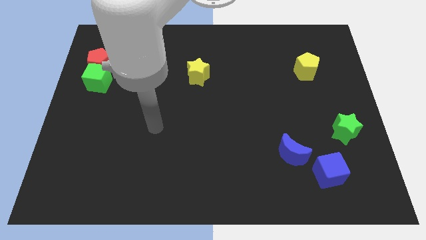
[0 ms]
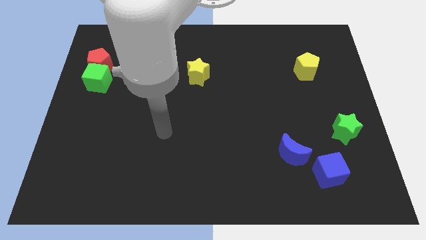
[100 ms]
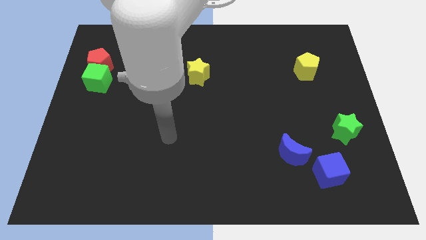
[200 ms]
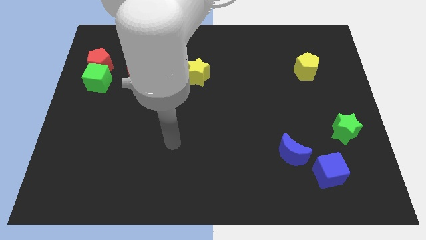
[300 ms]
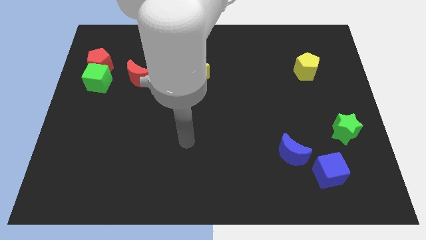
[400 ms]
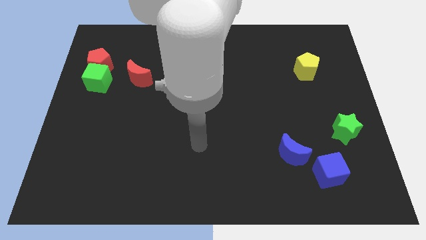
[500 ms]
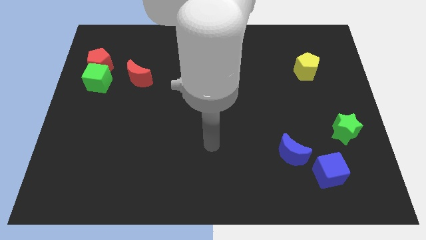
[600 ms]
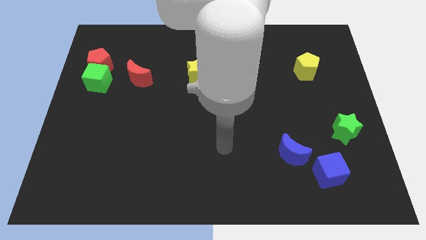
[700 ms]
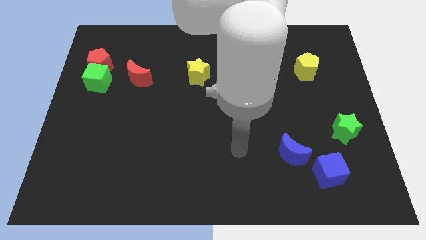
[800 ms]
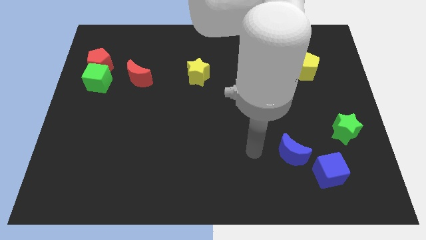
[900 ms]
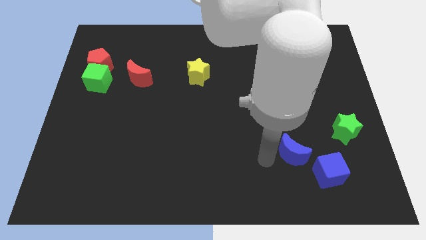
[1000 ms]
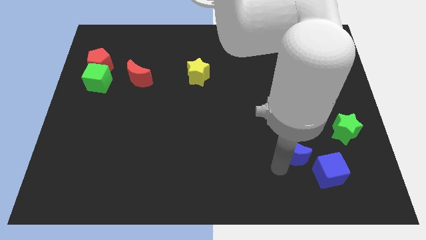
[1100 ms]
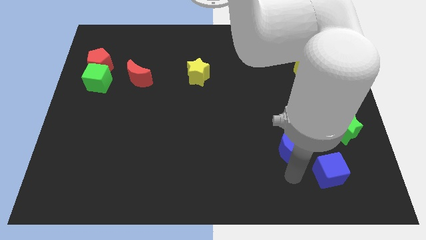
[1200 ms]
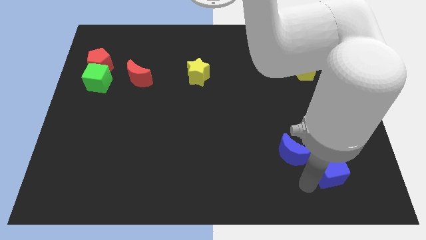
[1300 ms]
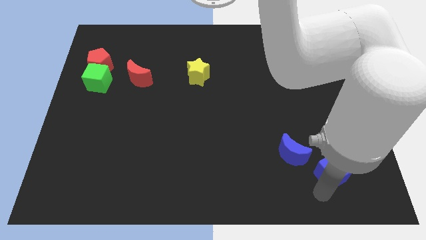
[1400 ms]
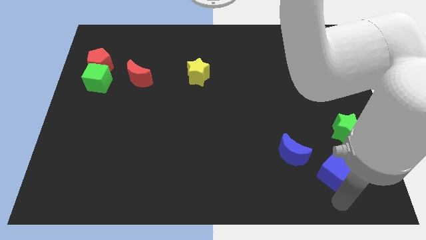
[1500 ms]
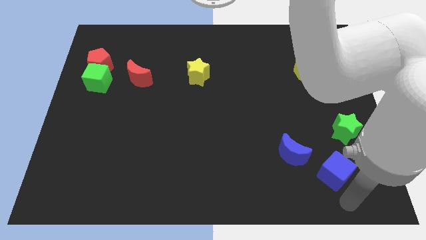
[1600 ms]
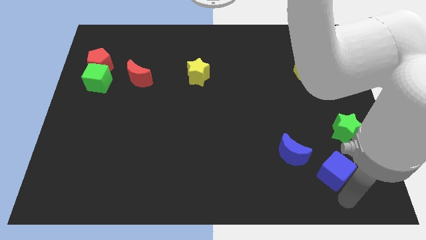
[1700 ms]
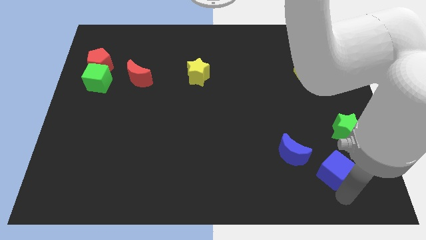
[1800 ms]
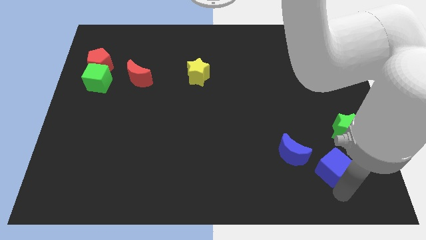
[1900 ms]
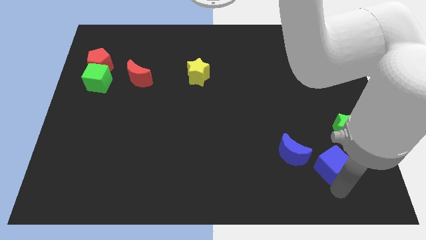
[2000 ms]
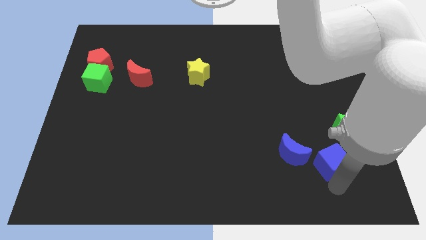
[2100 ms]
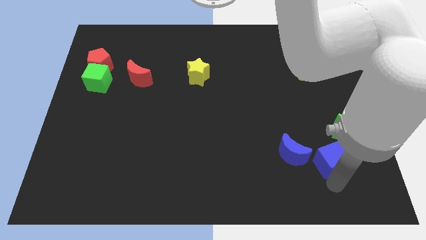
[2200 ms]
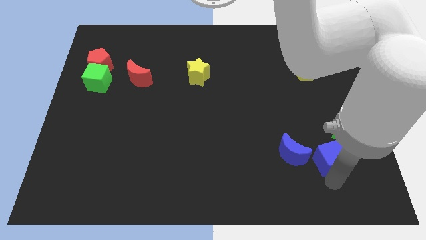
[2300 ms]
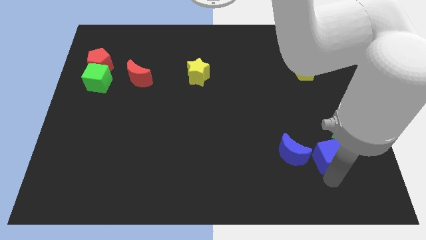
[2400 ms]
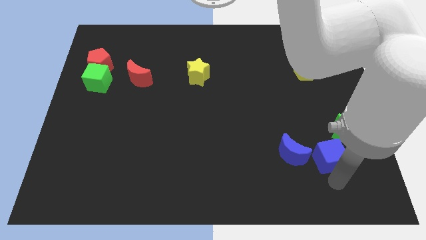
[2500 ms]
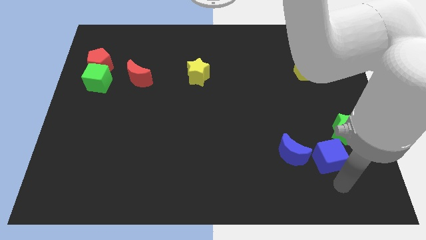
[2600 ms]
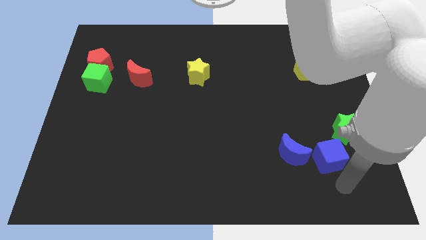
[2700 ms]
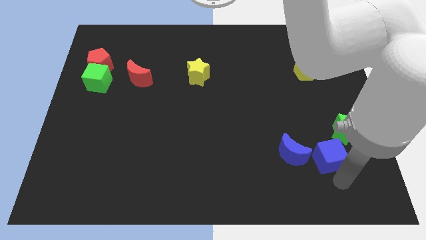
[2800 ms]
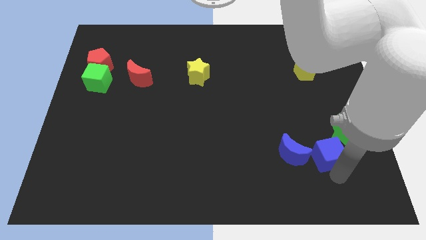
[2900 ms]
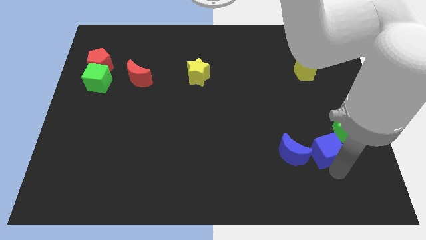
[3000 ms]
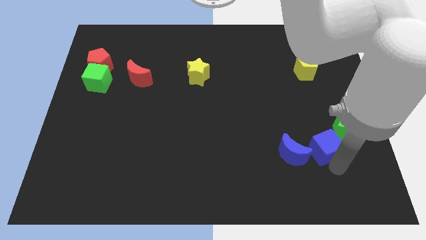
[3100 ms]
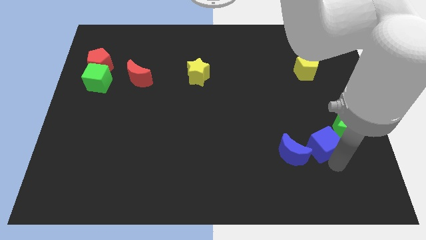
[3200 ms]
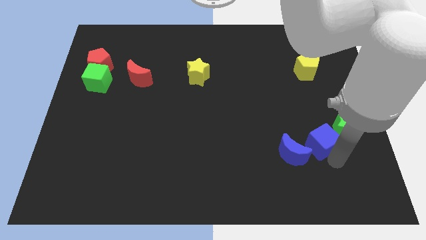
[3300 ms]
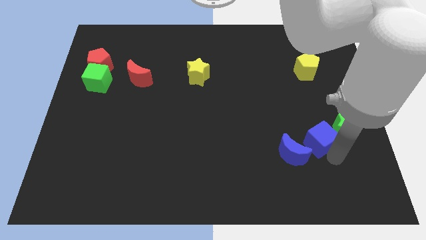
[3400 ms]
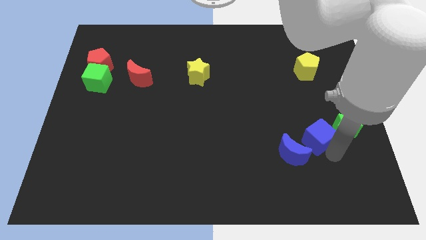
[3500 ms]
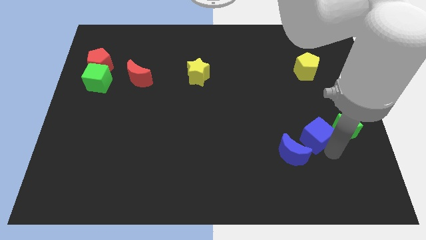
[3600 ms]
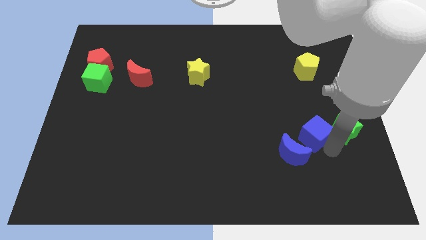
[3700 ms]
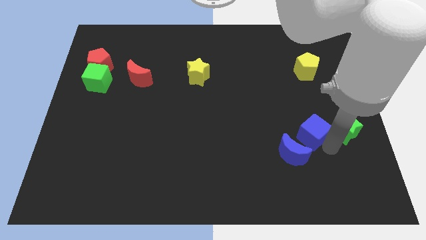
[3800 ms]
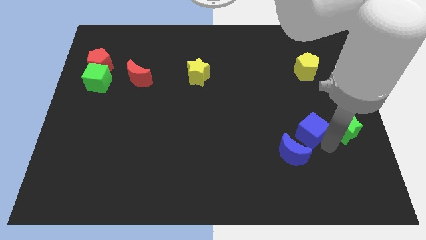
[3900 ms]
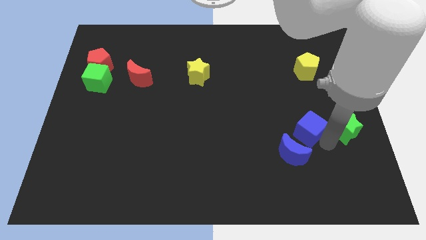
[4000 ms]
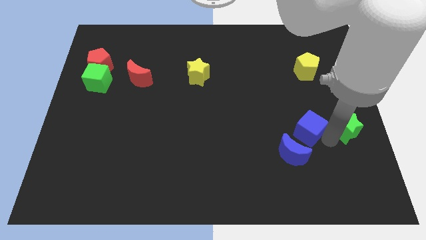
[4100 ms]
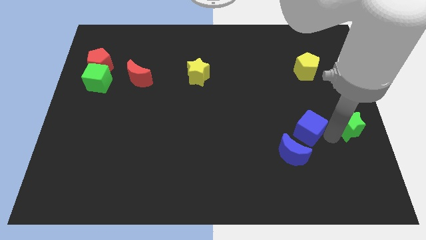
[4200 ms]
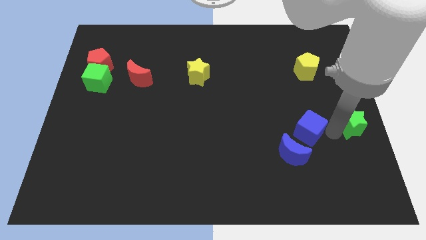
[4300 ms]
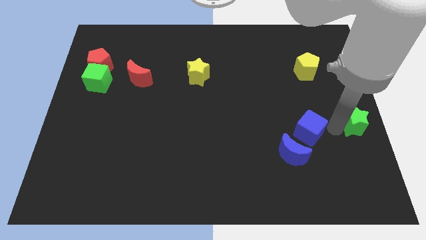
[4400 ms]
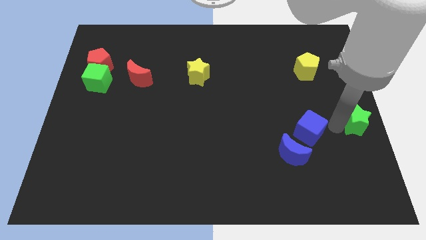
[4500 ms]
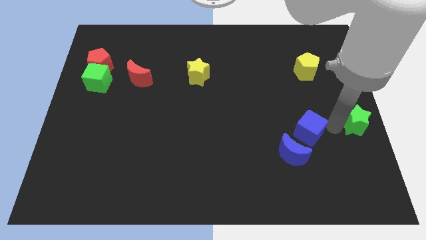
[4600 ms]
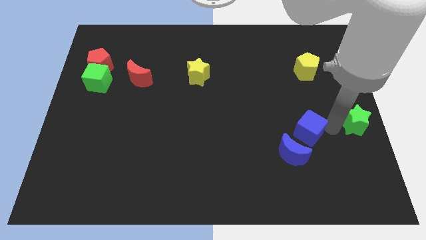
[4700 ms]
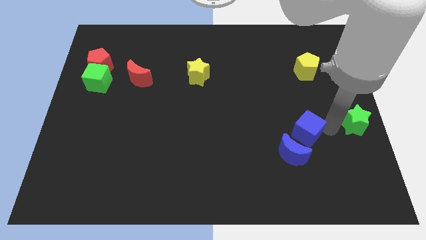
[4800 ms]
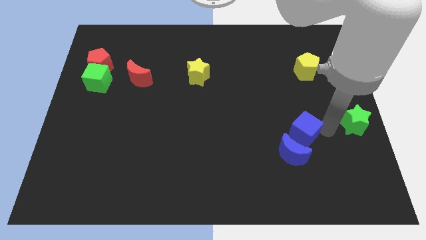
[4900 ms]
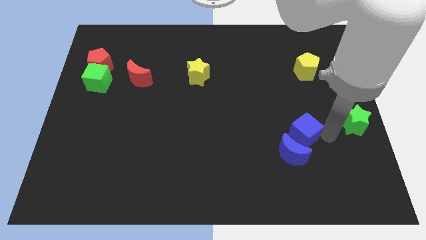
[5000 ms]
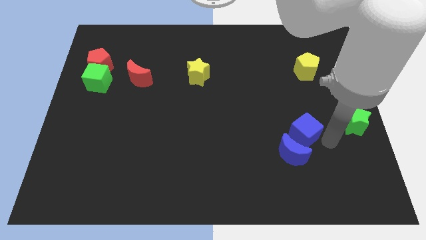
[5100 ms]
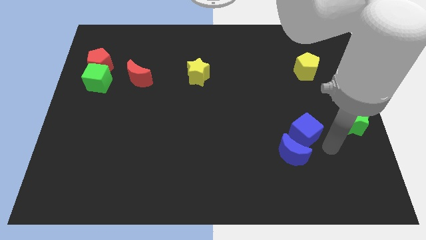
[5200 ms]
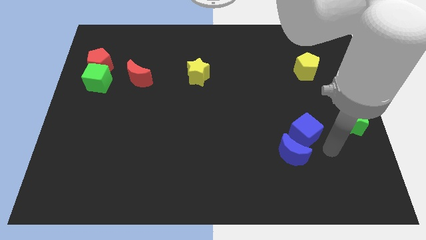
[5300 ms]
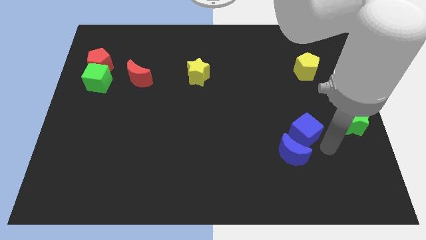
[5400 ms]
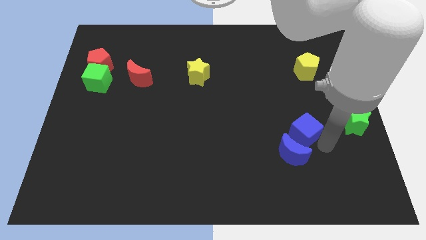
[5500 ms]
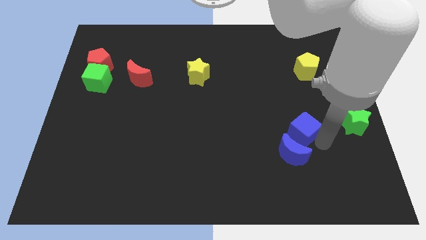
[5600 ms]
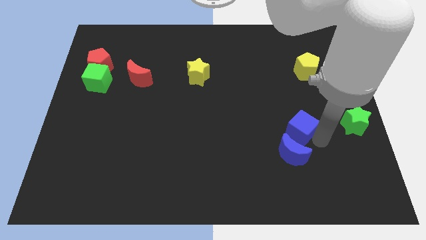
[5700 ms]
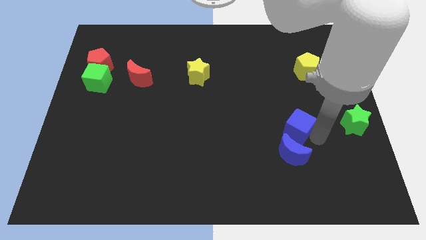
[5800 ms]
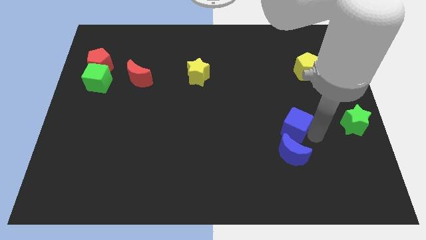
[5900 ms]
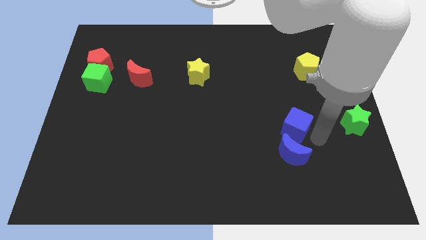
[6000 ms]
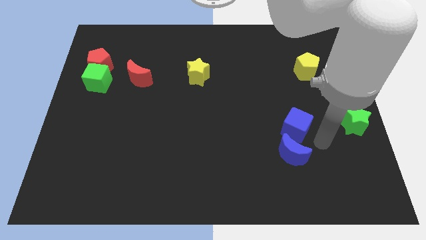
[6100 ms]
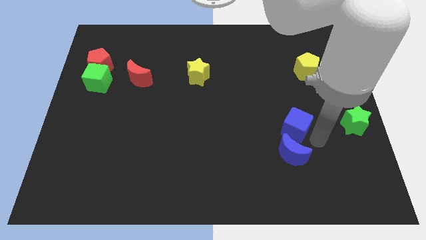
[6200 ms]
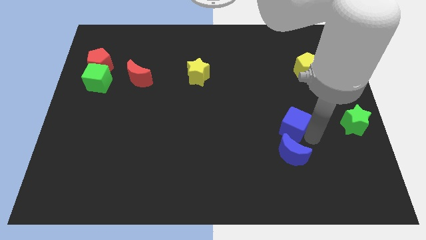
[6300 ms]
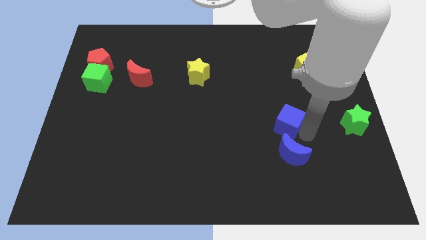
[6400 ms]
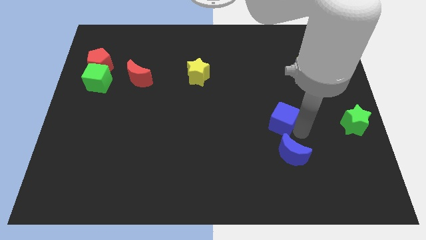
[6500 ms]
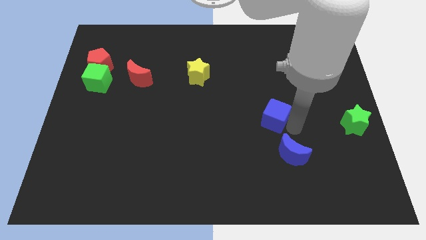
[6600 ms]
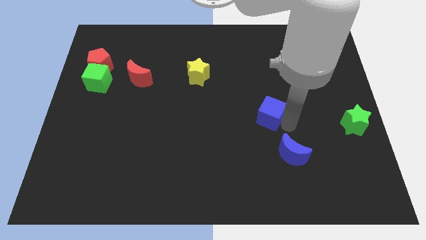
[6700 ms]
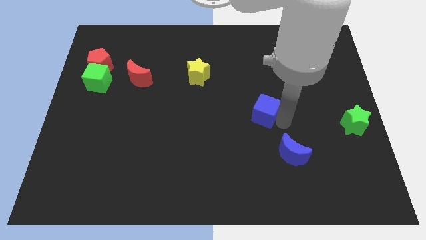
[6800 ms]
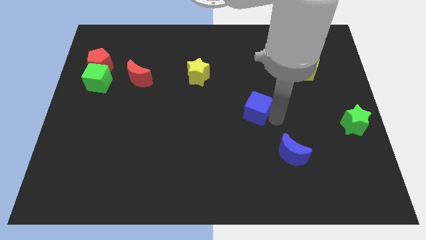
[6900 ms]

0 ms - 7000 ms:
push the blue cube upwards and to the left diagonally

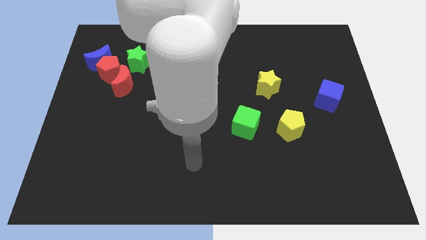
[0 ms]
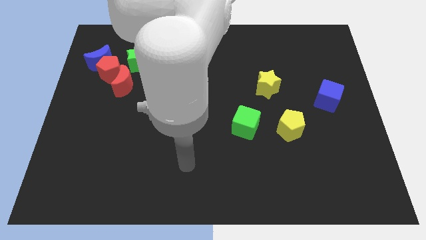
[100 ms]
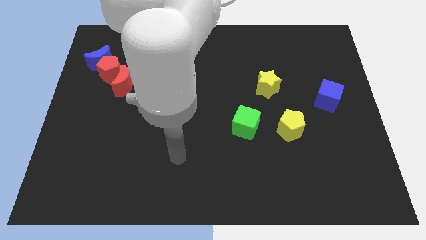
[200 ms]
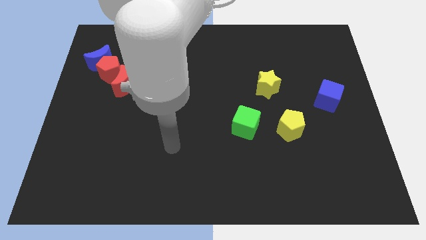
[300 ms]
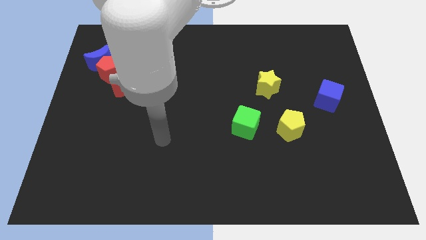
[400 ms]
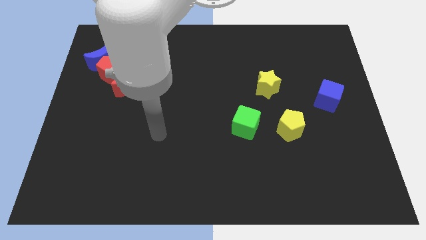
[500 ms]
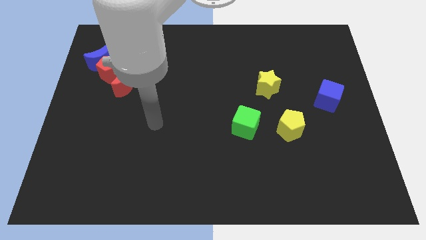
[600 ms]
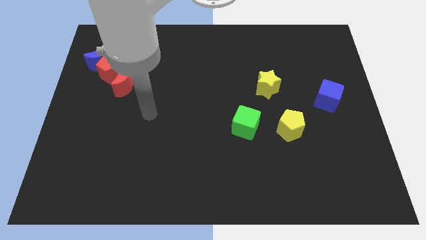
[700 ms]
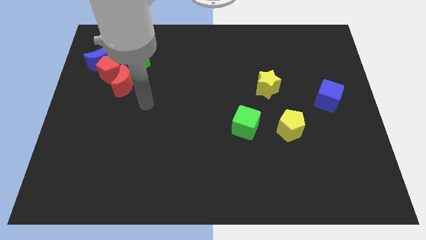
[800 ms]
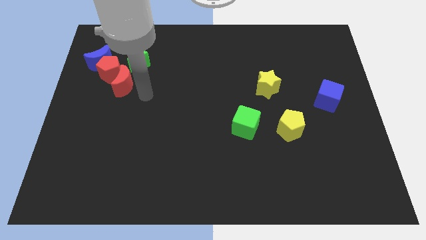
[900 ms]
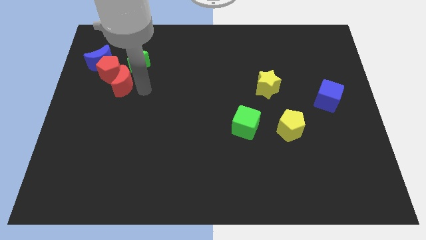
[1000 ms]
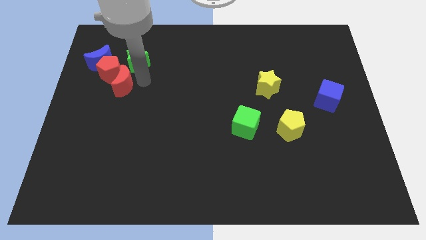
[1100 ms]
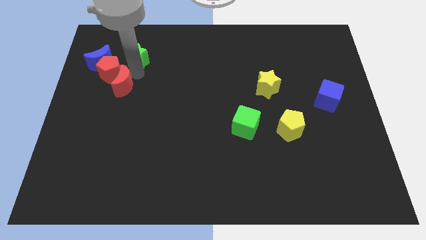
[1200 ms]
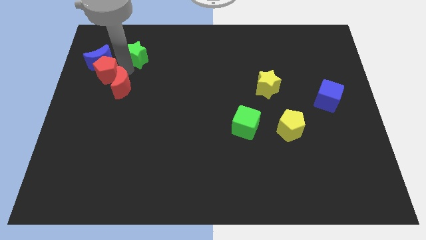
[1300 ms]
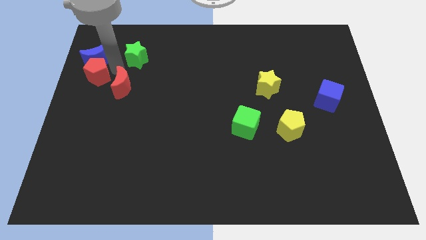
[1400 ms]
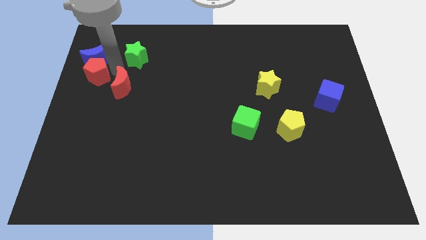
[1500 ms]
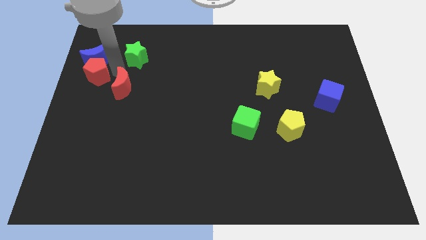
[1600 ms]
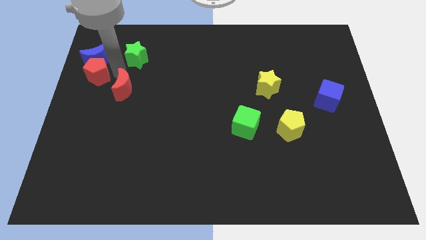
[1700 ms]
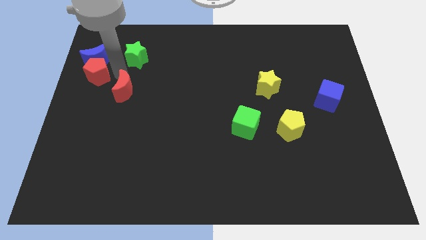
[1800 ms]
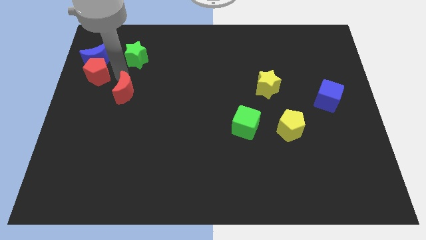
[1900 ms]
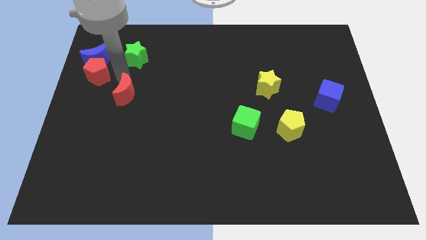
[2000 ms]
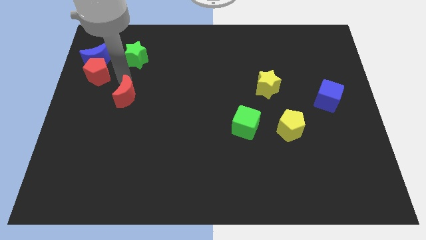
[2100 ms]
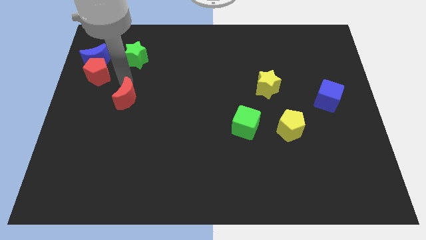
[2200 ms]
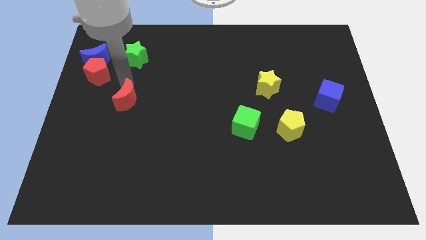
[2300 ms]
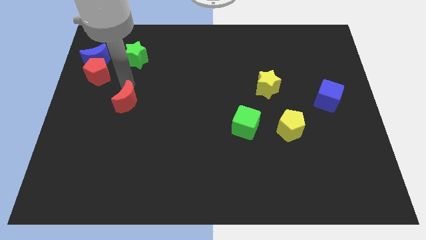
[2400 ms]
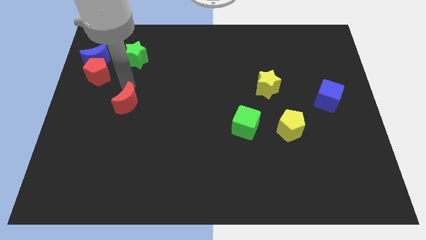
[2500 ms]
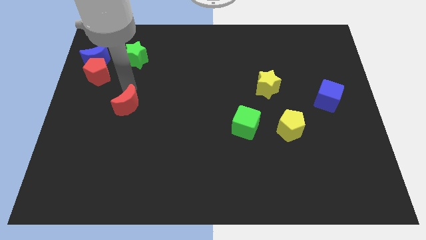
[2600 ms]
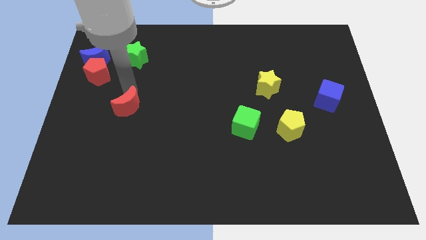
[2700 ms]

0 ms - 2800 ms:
slide the red moon a little bit downwards
